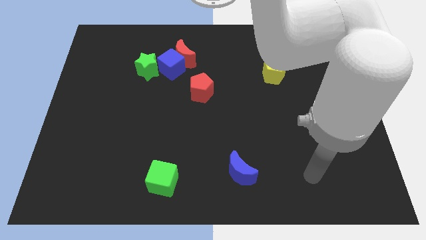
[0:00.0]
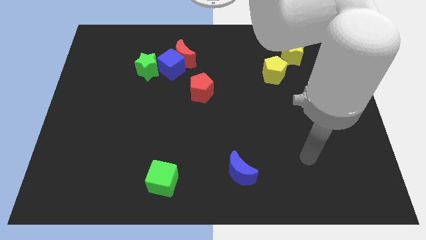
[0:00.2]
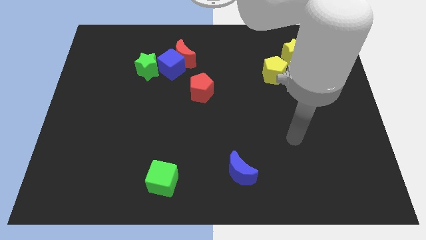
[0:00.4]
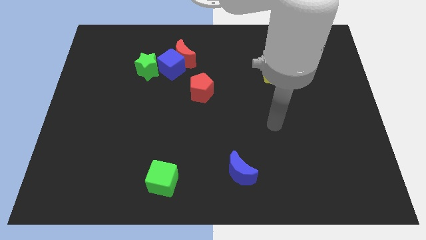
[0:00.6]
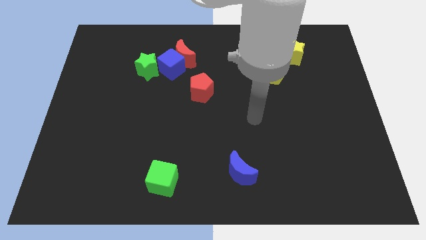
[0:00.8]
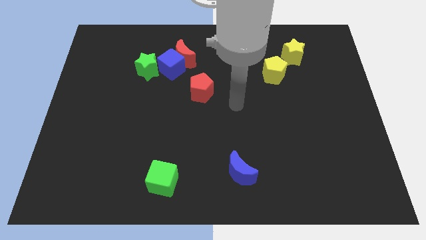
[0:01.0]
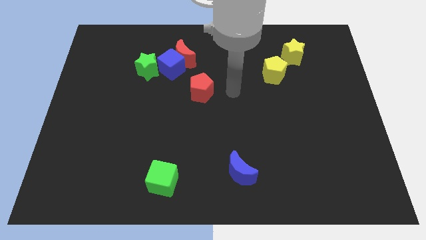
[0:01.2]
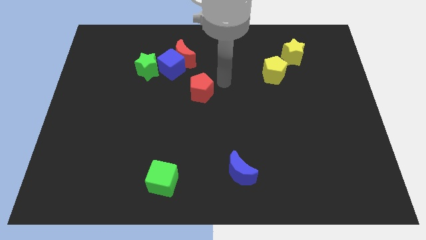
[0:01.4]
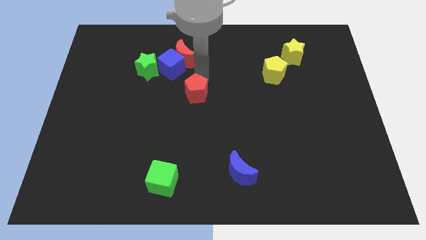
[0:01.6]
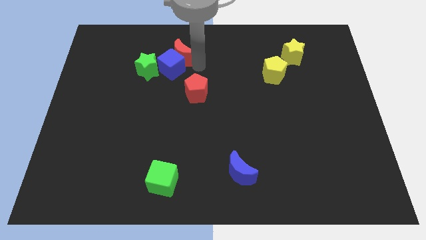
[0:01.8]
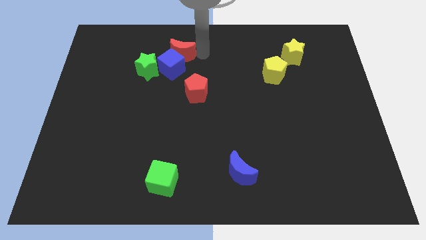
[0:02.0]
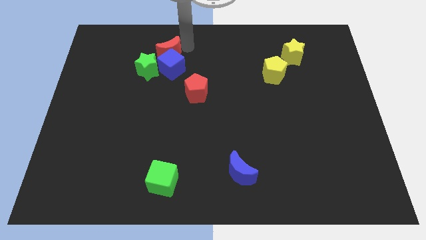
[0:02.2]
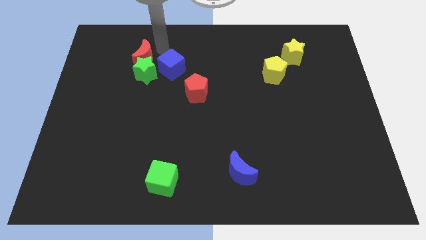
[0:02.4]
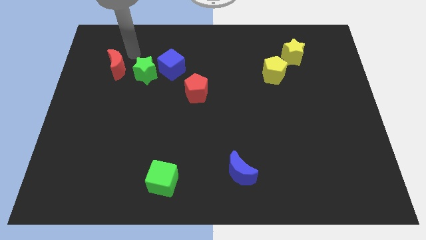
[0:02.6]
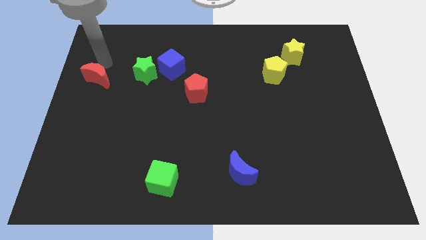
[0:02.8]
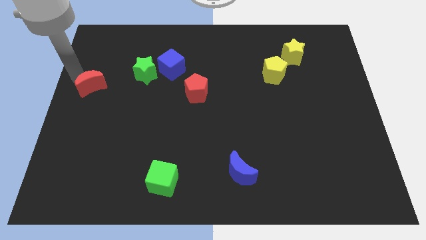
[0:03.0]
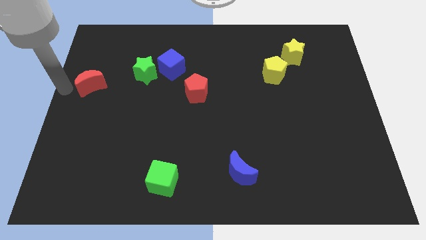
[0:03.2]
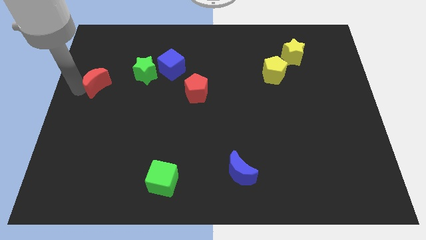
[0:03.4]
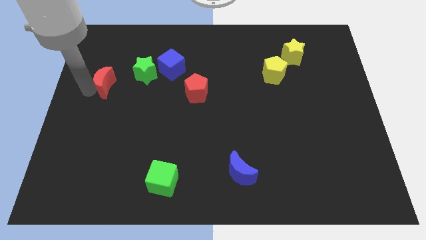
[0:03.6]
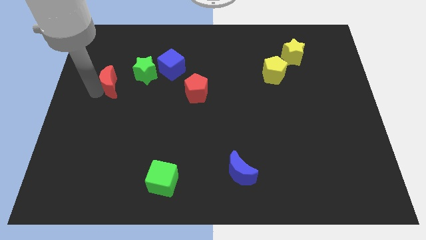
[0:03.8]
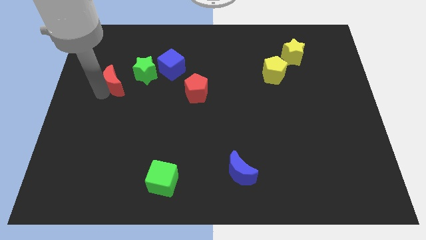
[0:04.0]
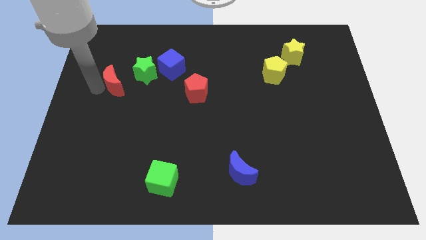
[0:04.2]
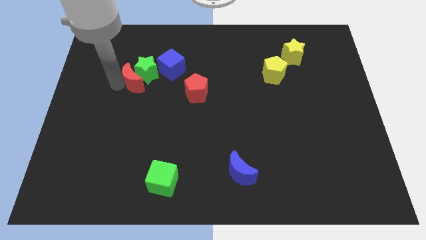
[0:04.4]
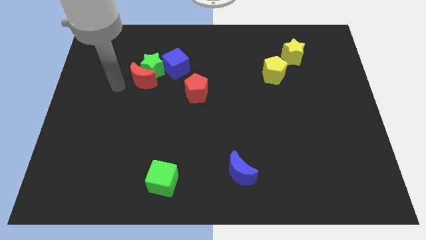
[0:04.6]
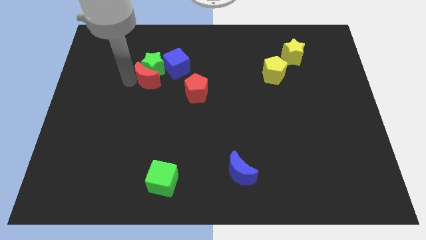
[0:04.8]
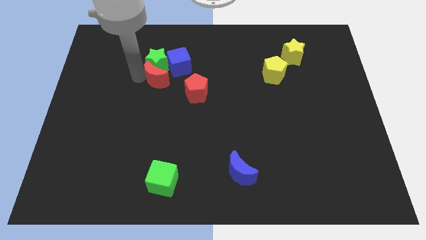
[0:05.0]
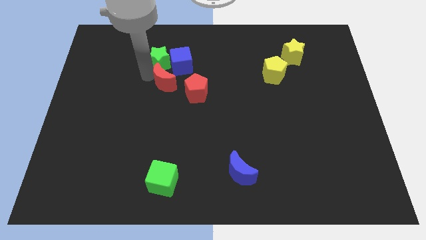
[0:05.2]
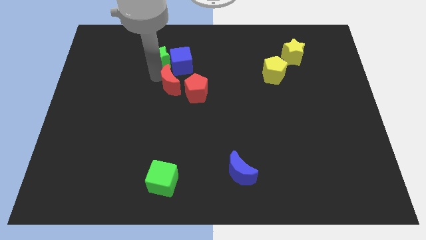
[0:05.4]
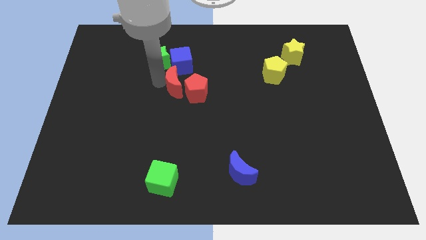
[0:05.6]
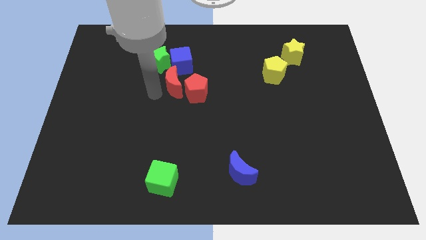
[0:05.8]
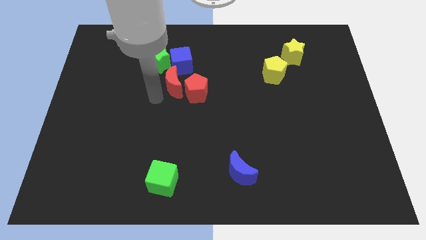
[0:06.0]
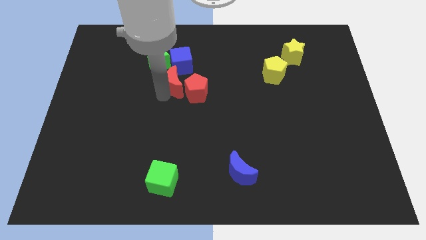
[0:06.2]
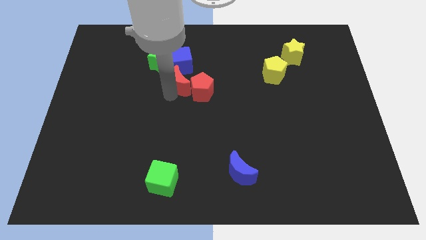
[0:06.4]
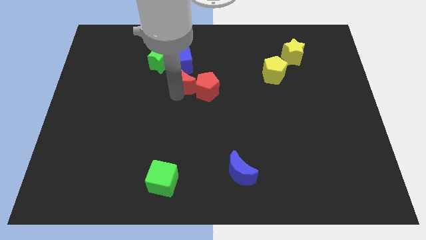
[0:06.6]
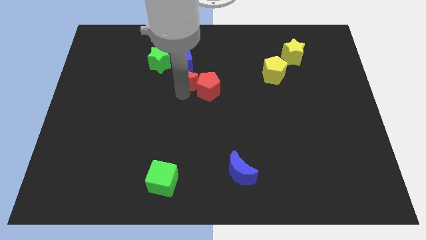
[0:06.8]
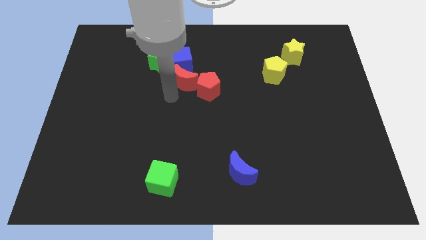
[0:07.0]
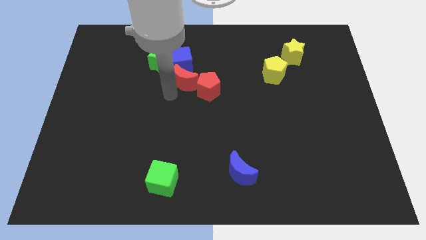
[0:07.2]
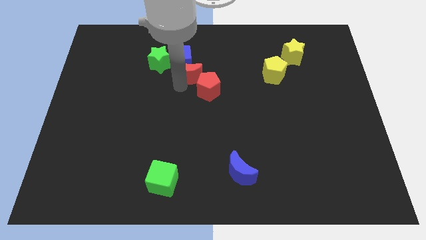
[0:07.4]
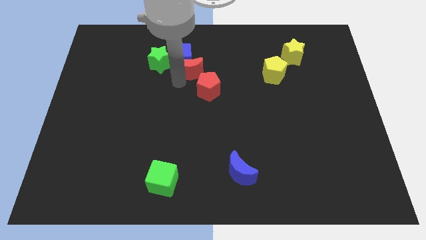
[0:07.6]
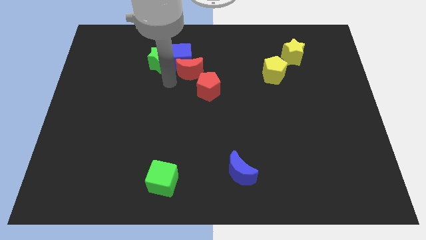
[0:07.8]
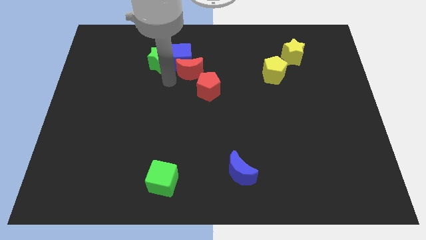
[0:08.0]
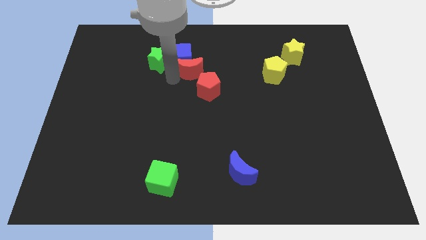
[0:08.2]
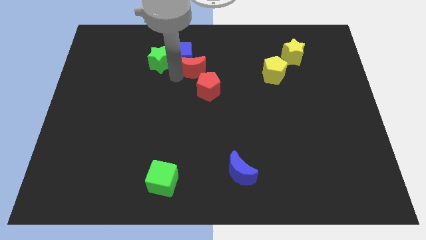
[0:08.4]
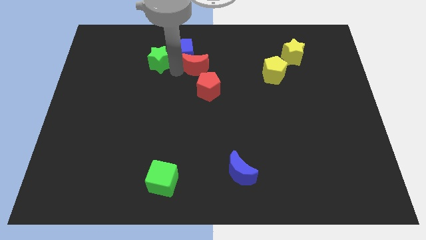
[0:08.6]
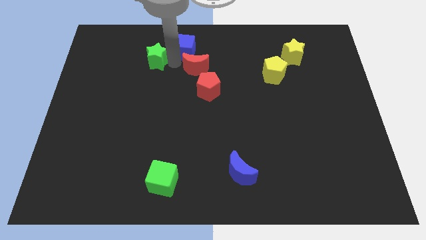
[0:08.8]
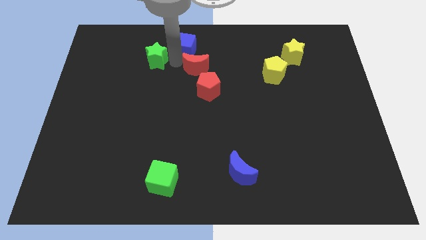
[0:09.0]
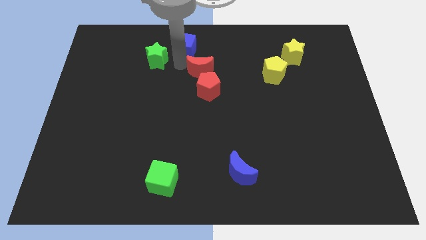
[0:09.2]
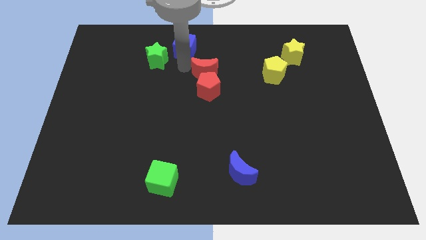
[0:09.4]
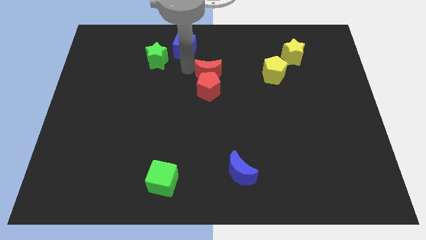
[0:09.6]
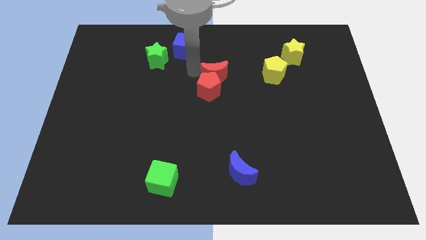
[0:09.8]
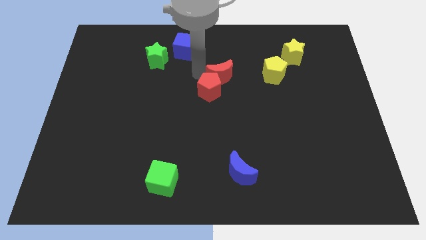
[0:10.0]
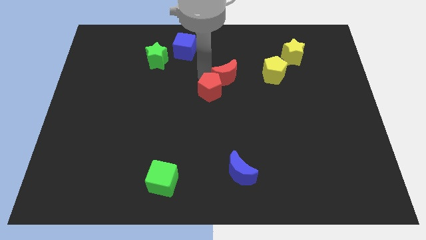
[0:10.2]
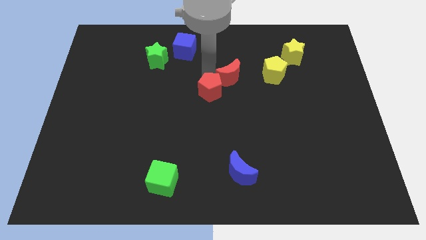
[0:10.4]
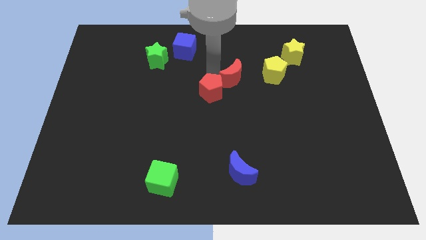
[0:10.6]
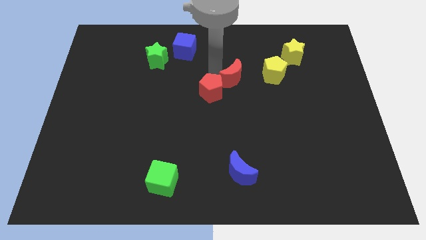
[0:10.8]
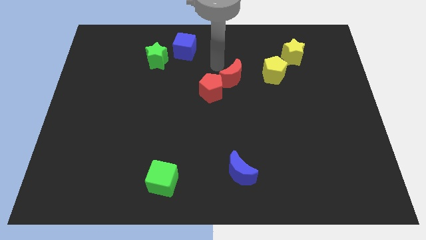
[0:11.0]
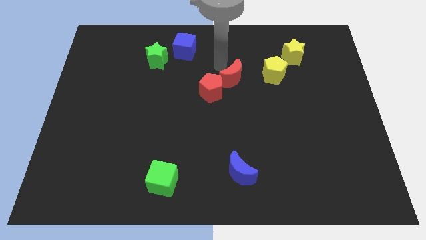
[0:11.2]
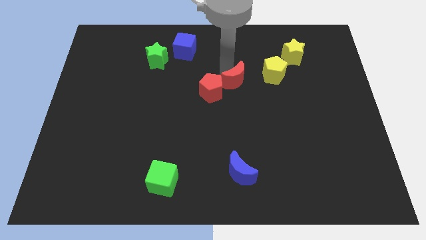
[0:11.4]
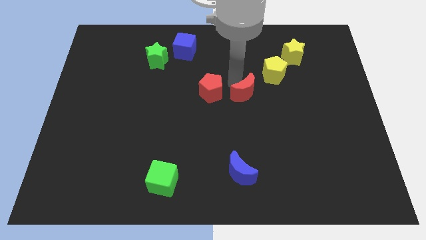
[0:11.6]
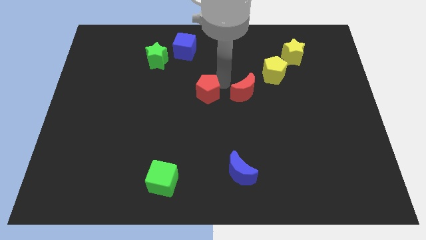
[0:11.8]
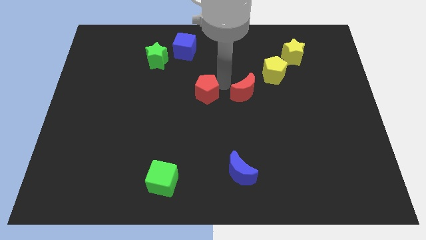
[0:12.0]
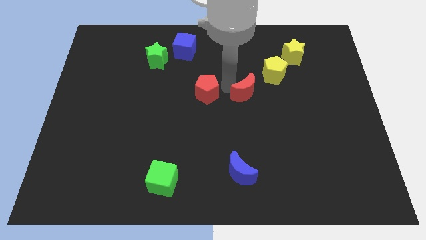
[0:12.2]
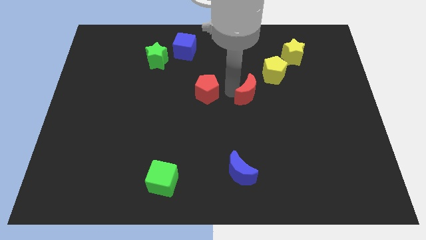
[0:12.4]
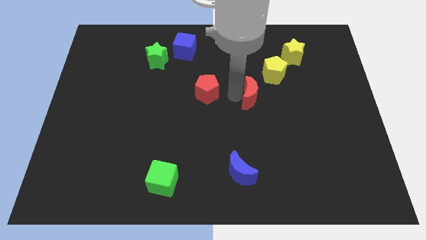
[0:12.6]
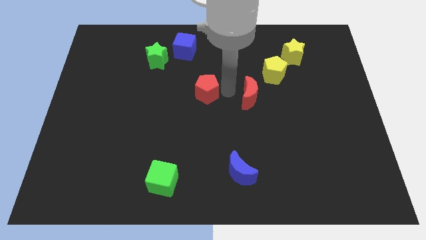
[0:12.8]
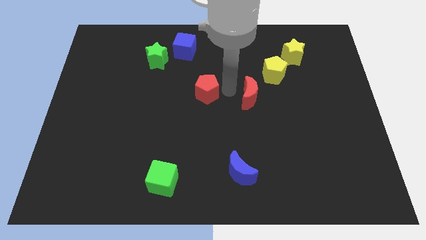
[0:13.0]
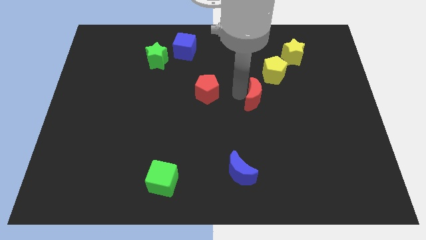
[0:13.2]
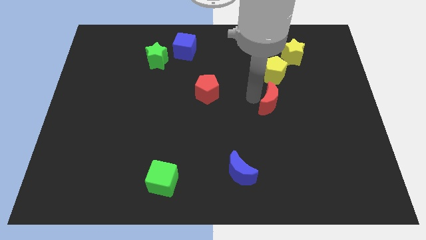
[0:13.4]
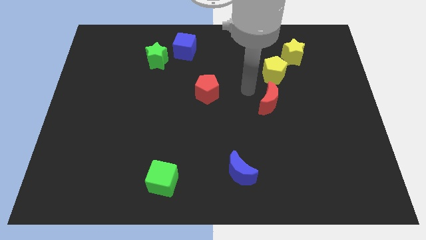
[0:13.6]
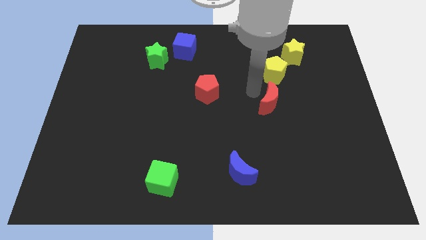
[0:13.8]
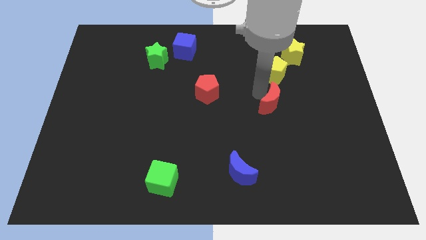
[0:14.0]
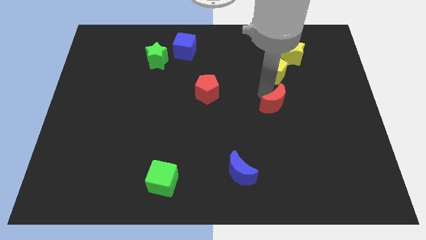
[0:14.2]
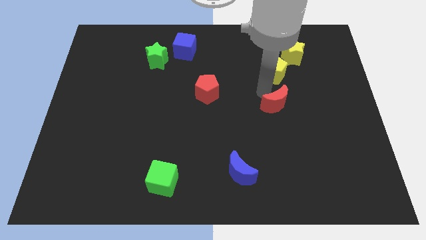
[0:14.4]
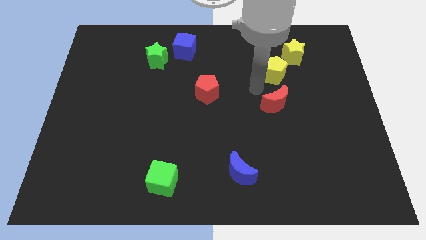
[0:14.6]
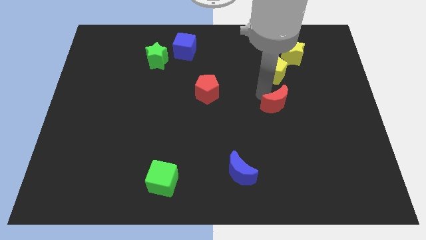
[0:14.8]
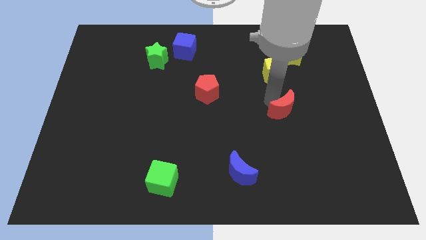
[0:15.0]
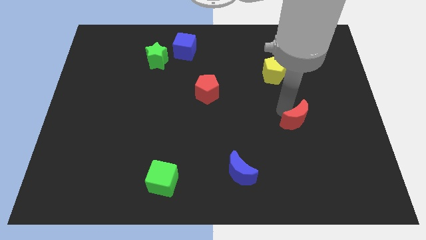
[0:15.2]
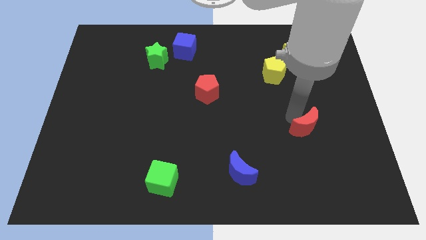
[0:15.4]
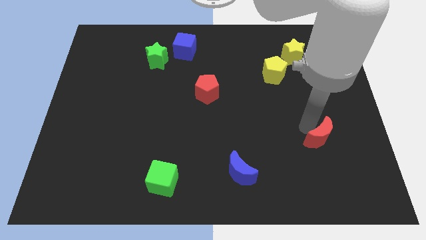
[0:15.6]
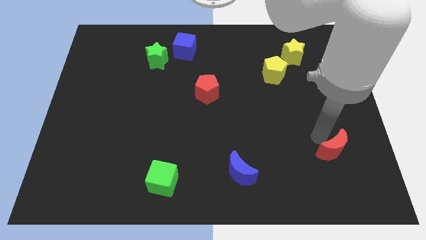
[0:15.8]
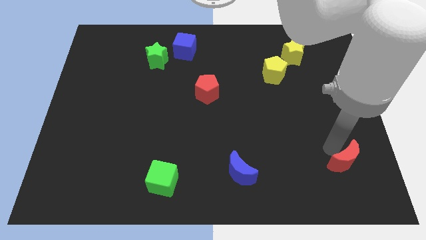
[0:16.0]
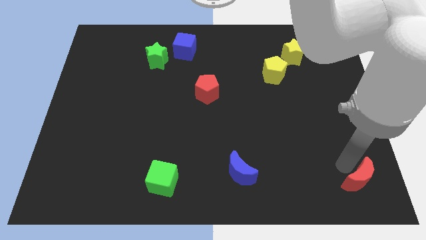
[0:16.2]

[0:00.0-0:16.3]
move the red moon to the bottom right corner
